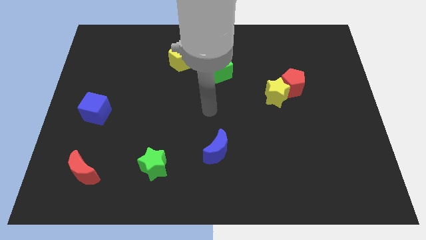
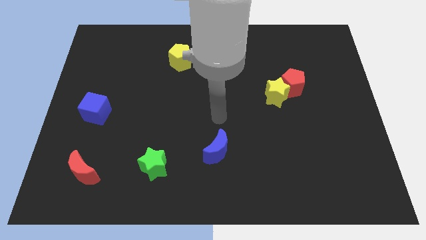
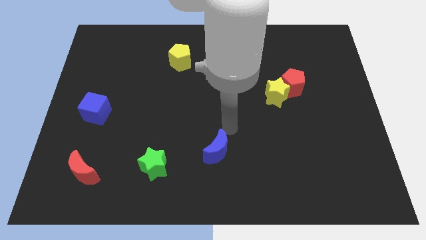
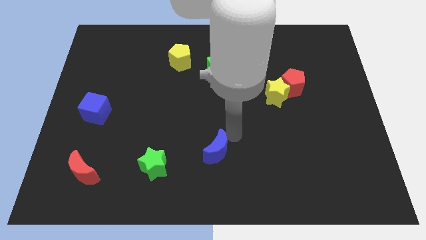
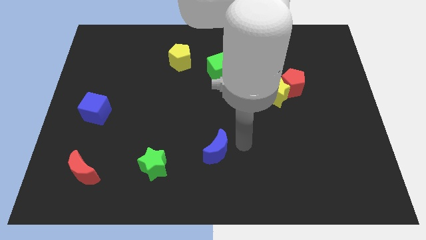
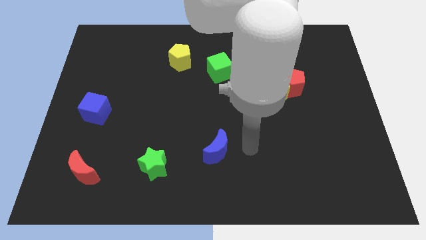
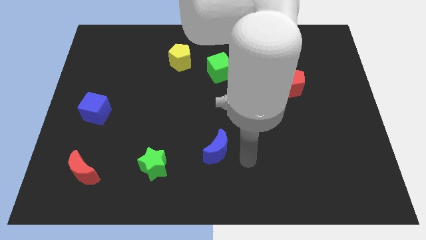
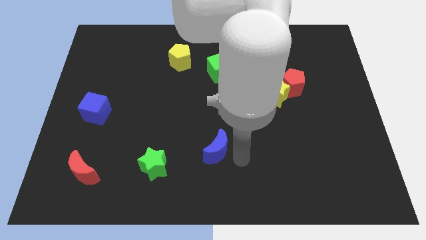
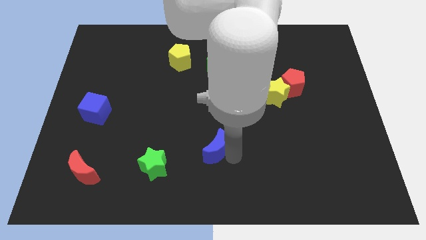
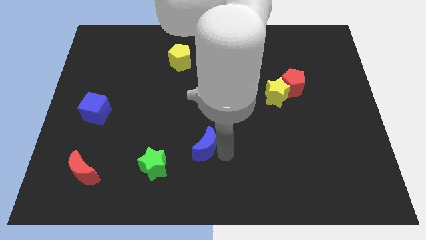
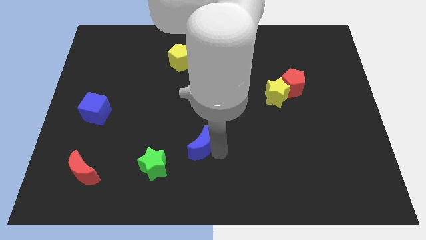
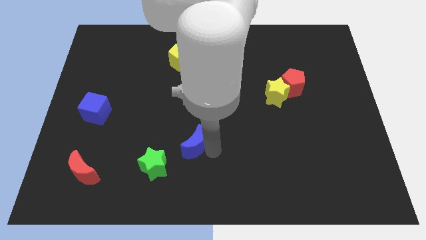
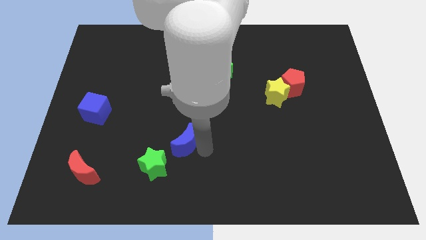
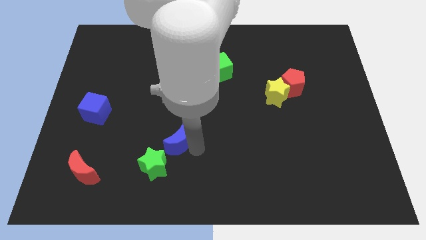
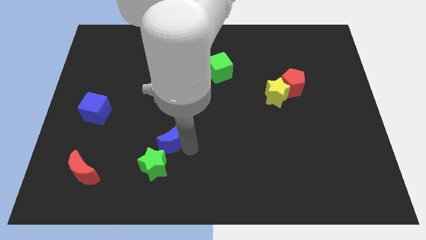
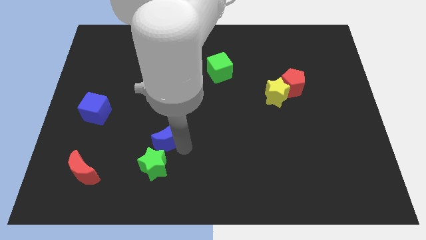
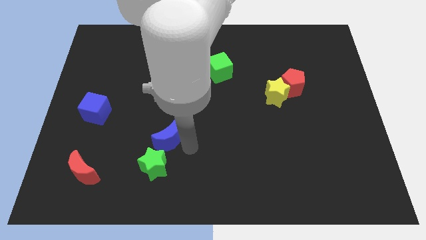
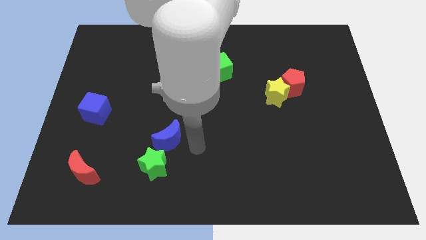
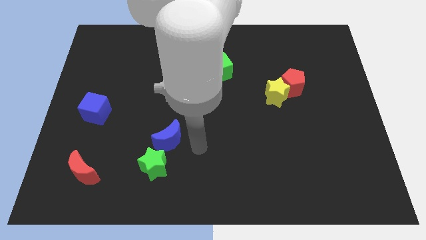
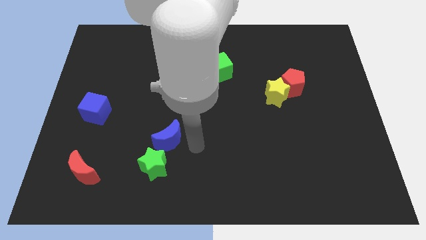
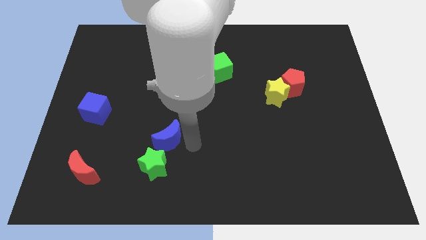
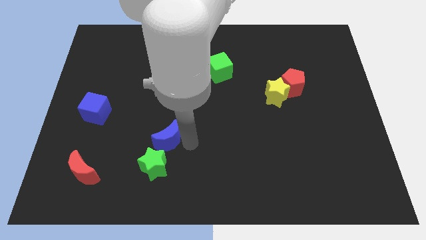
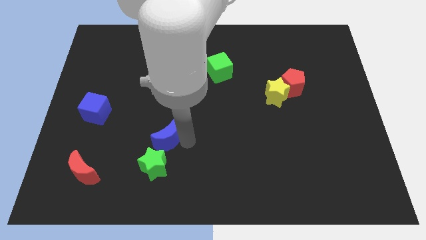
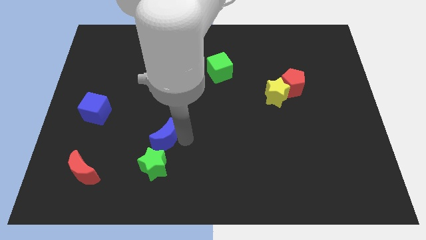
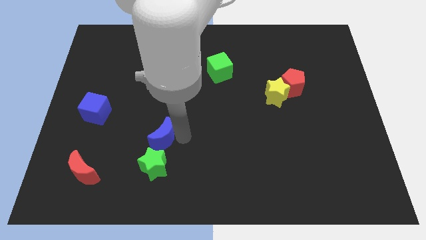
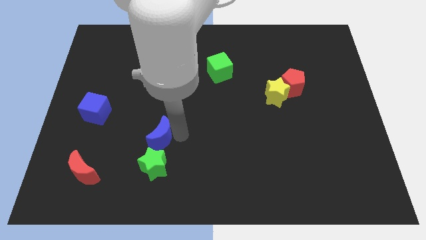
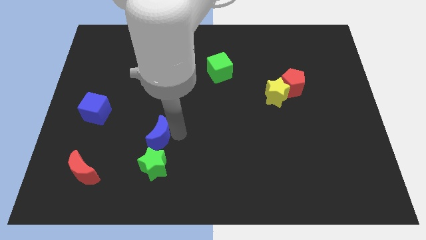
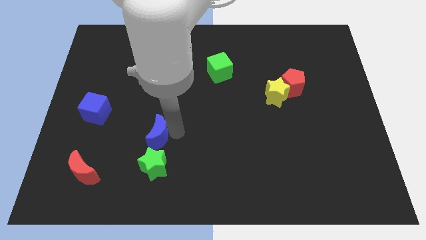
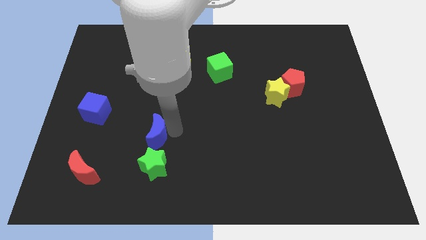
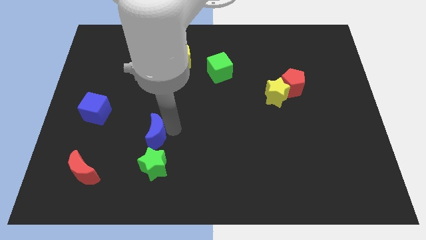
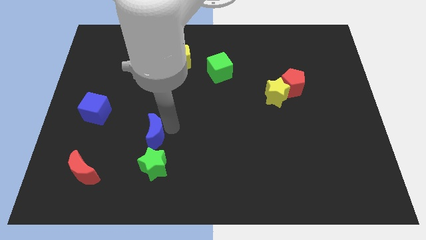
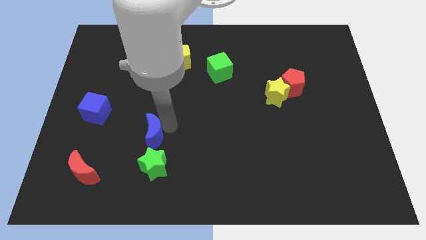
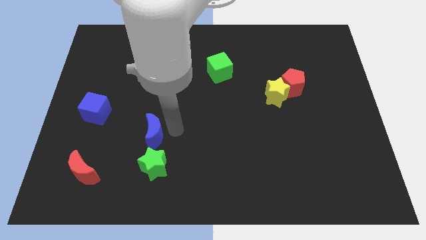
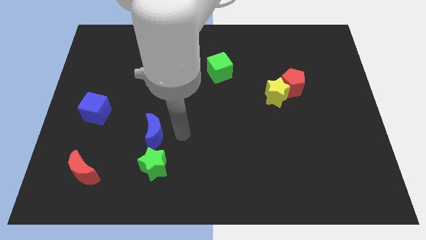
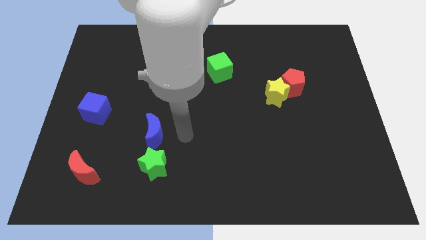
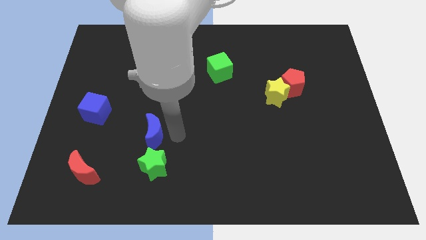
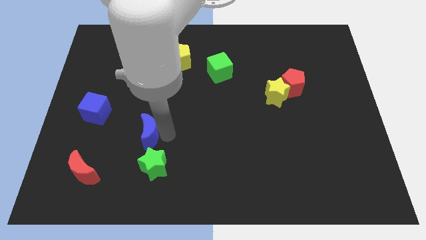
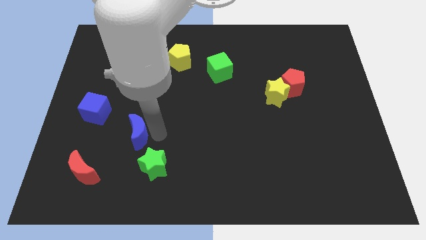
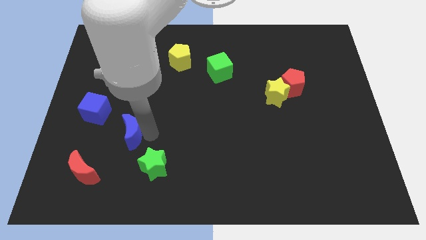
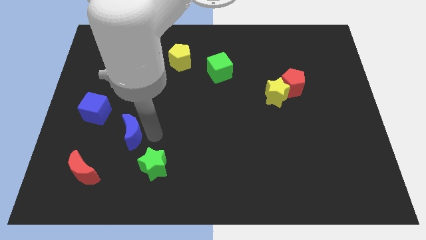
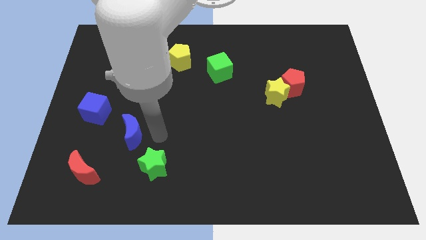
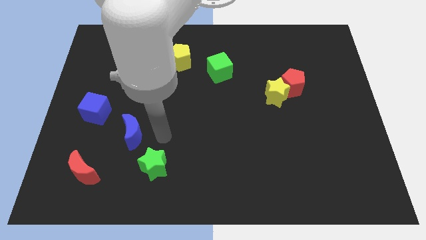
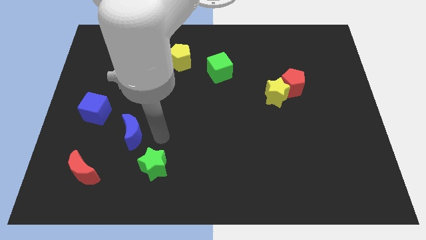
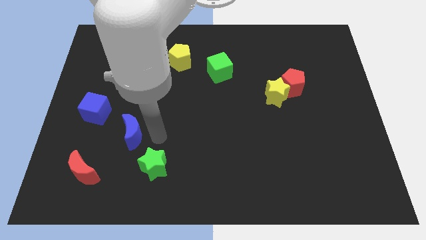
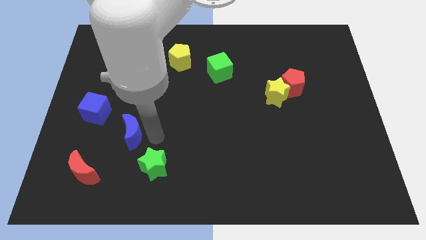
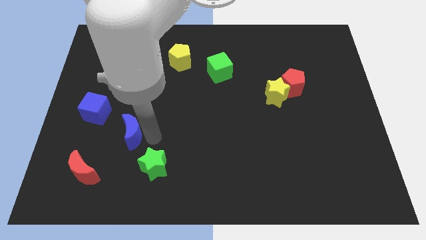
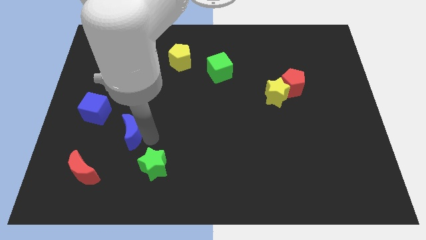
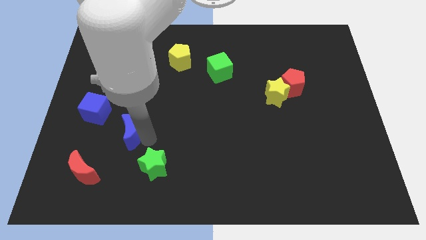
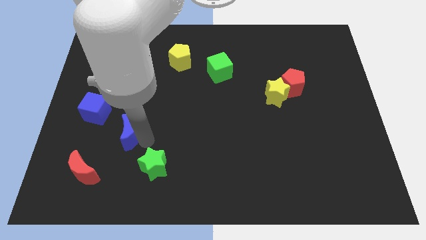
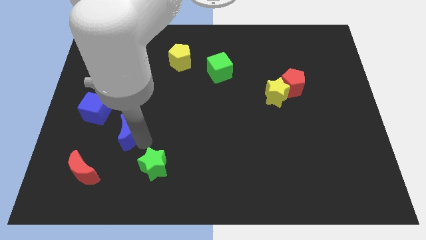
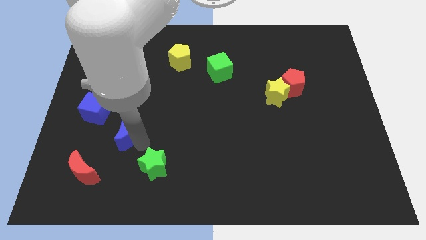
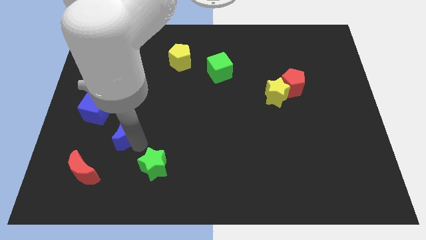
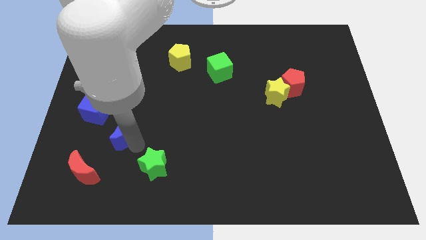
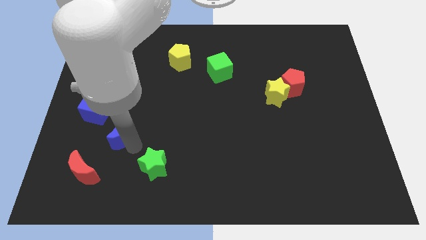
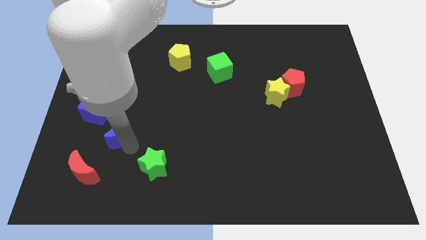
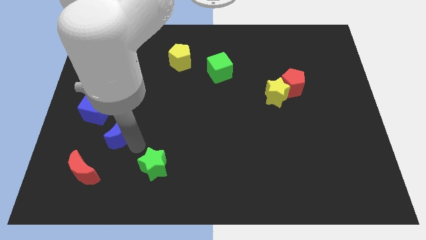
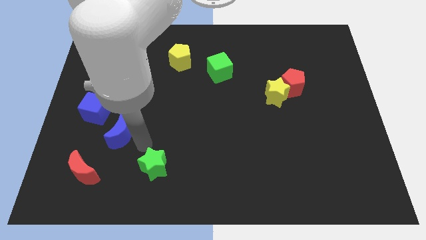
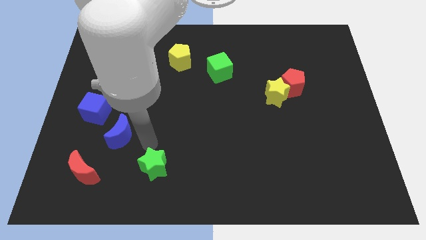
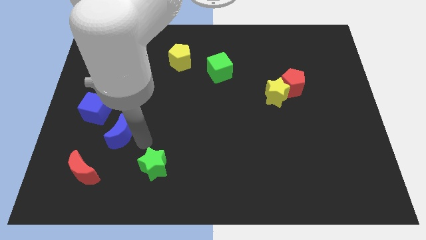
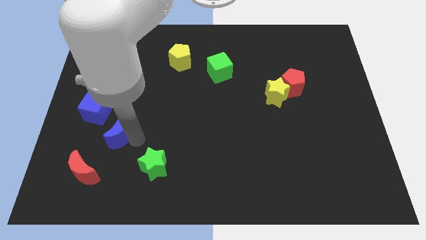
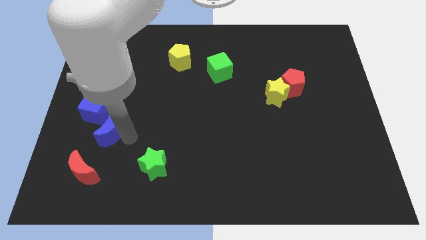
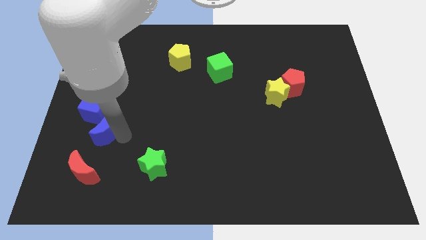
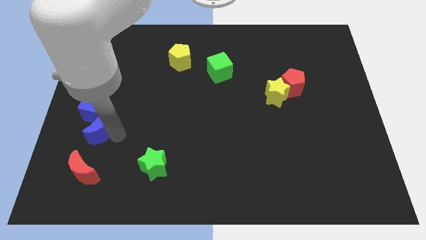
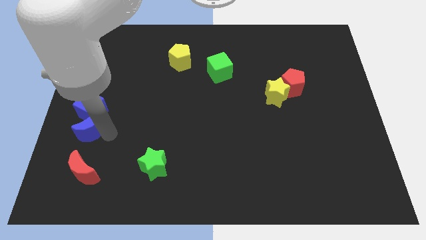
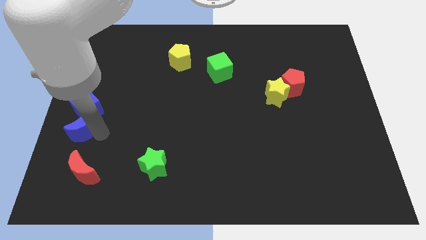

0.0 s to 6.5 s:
move the blue moon to the left side

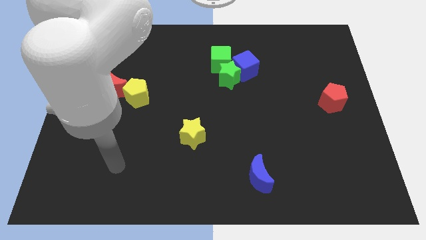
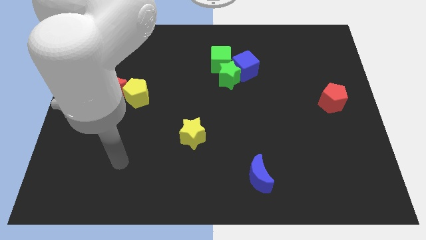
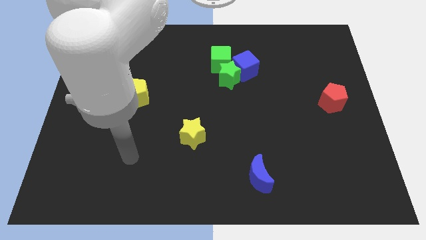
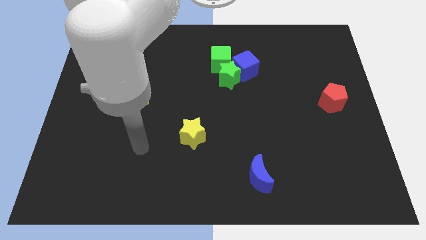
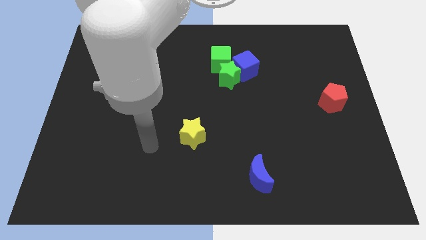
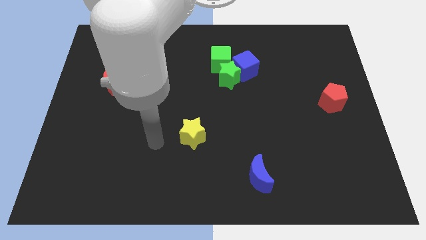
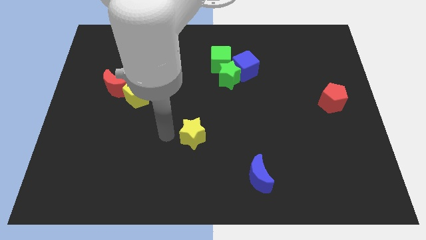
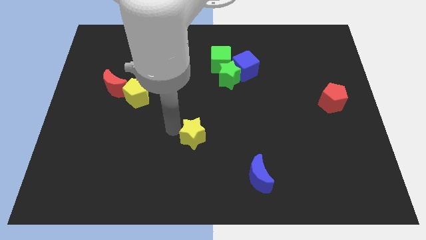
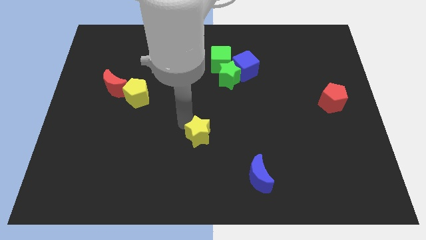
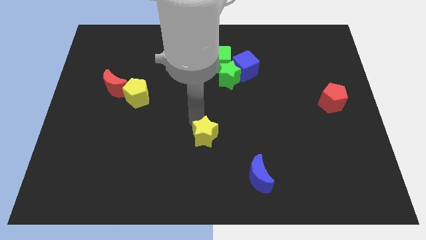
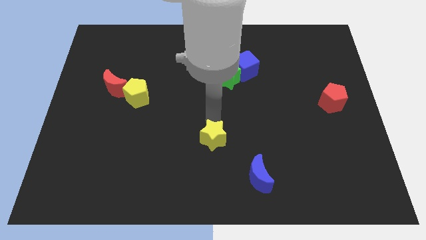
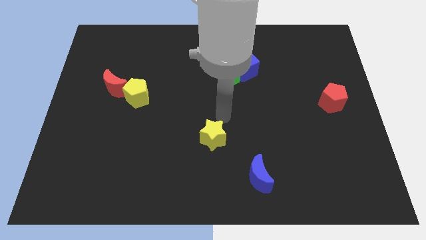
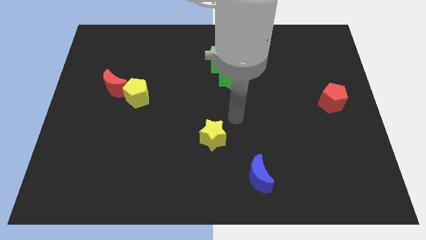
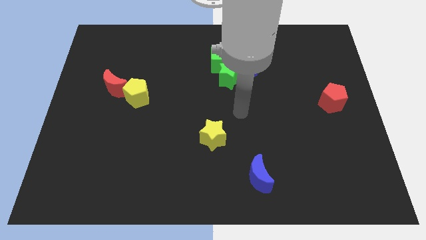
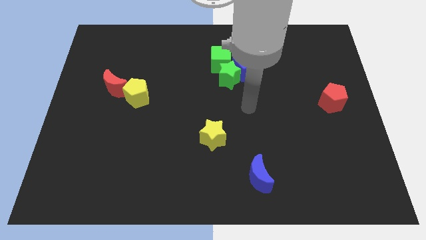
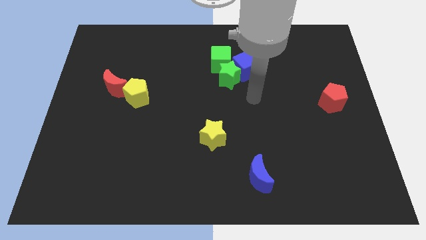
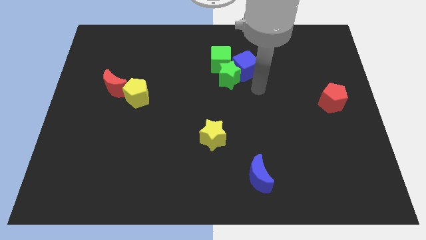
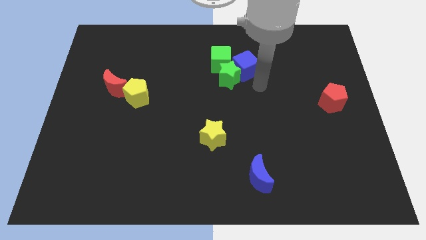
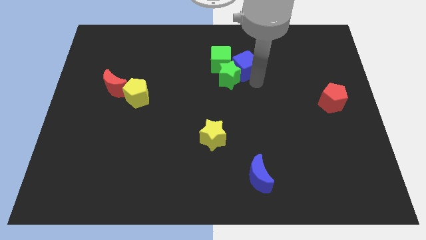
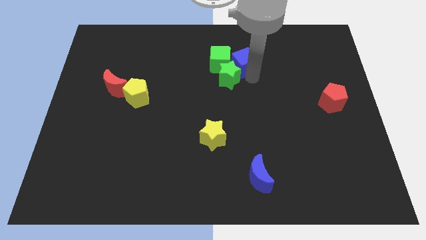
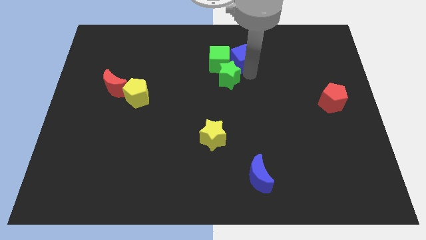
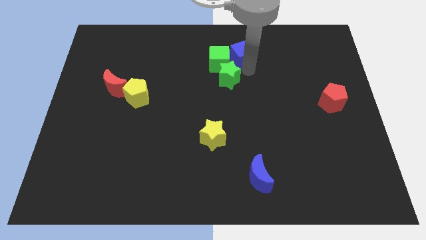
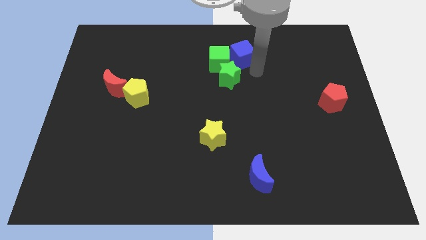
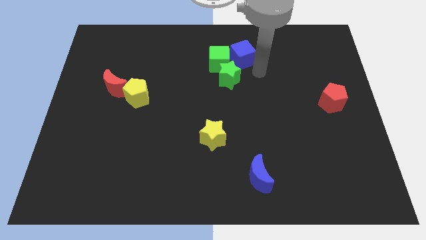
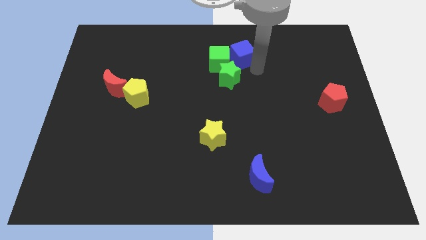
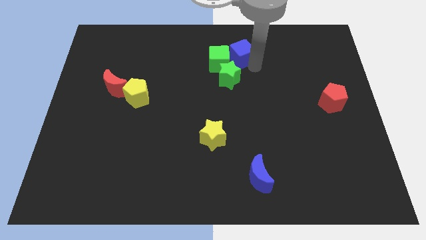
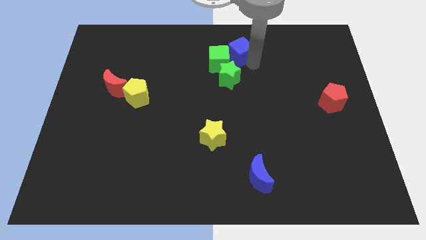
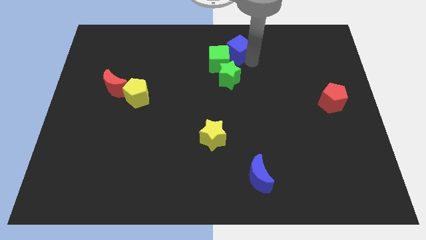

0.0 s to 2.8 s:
push the blue cube to the top side
